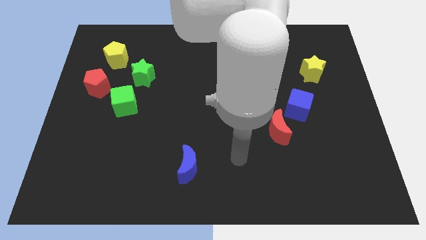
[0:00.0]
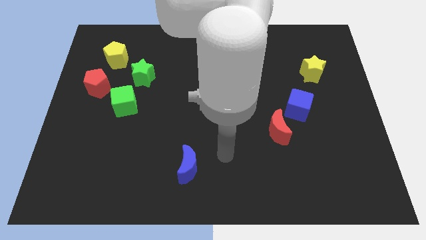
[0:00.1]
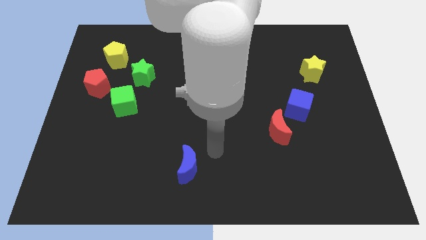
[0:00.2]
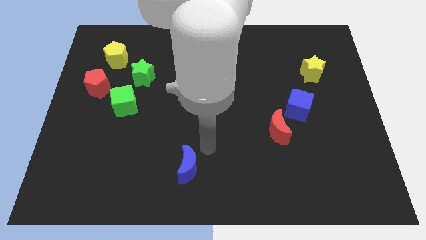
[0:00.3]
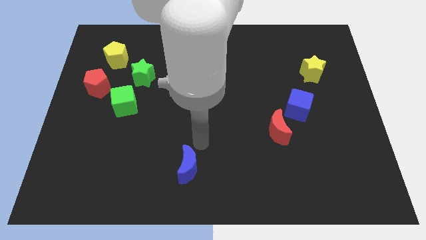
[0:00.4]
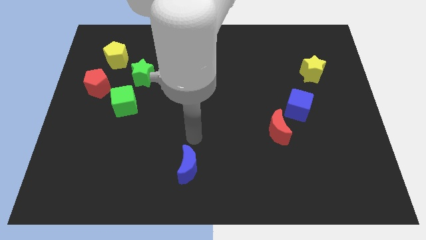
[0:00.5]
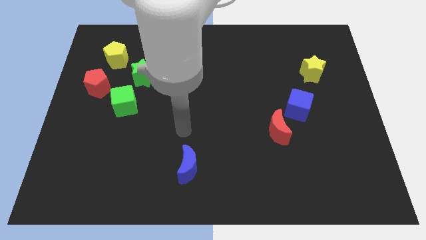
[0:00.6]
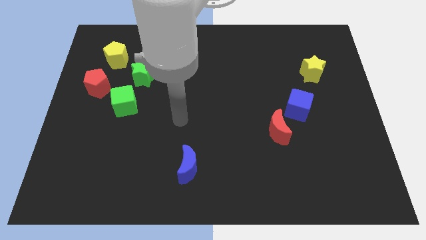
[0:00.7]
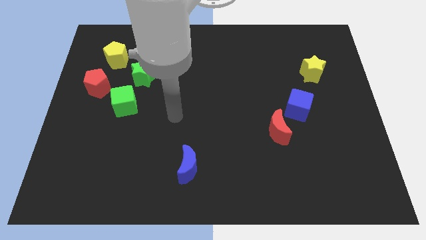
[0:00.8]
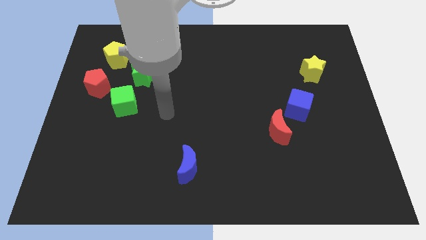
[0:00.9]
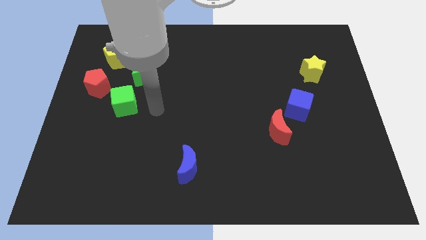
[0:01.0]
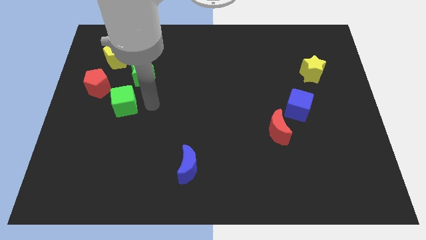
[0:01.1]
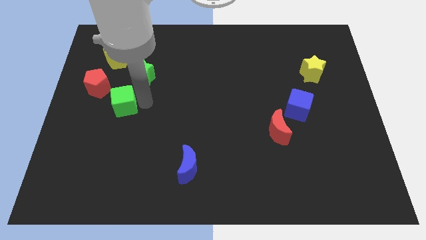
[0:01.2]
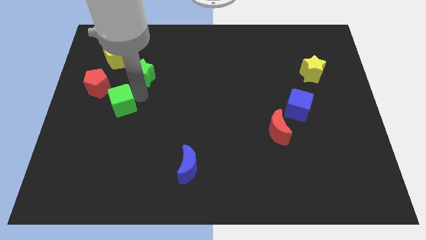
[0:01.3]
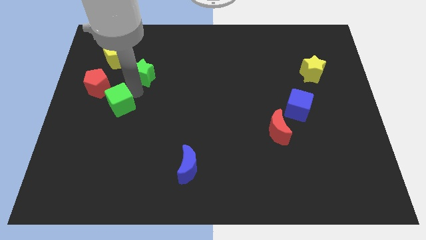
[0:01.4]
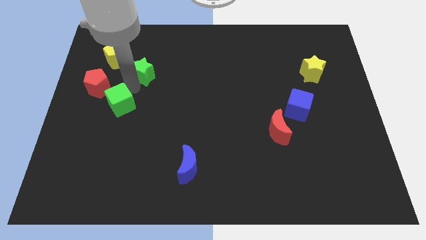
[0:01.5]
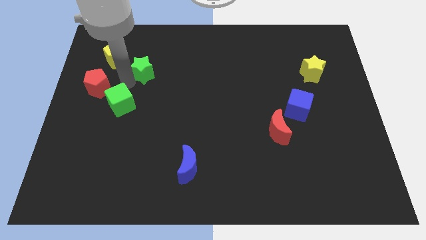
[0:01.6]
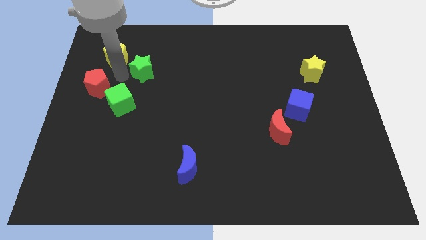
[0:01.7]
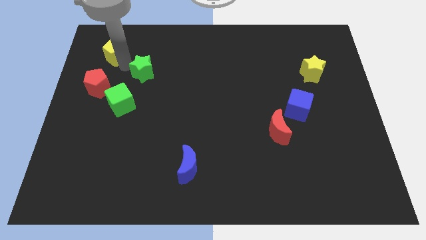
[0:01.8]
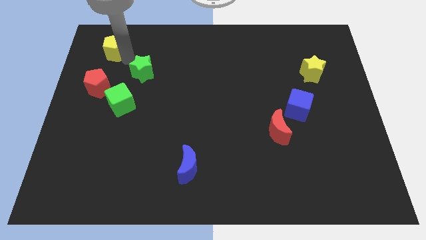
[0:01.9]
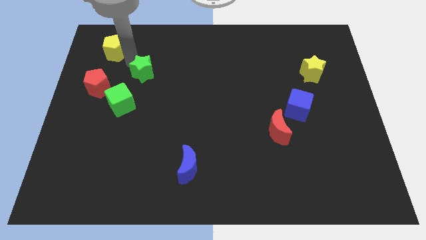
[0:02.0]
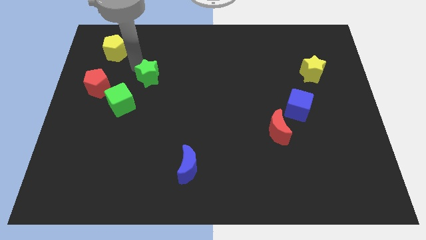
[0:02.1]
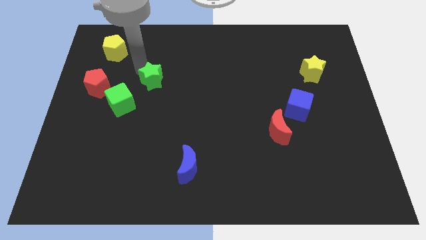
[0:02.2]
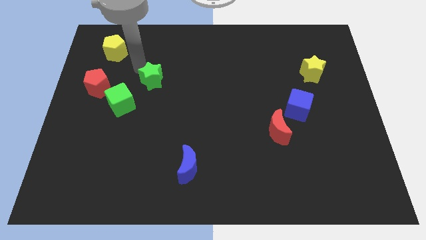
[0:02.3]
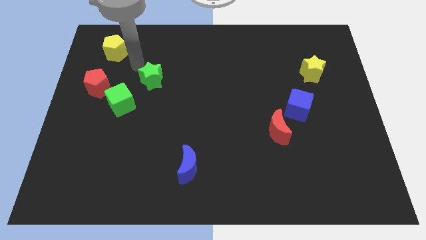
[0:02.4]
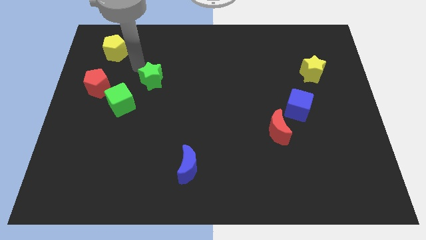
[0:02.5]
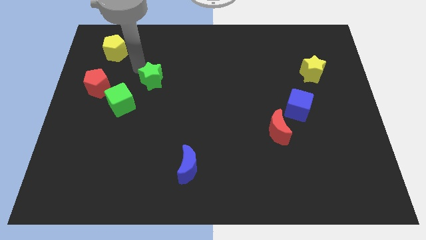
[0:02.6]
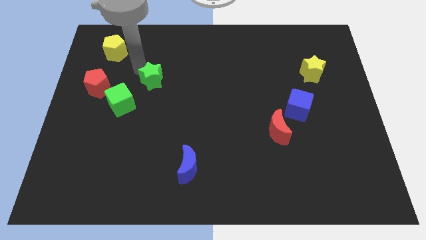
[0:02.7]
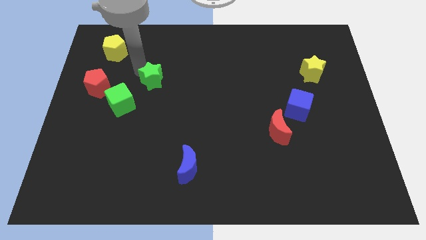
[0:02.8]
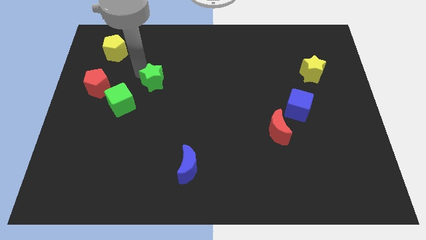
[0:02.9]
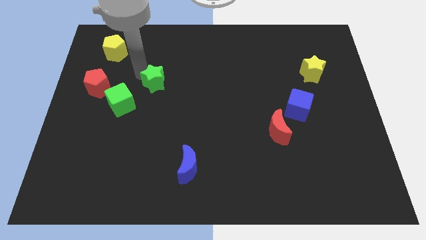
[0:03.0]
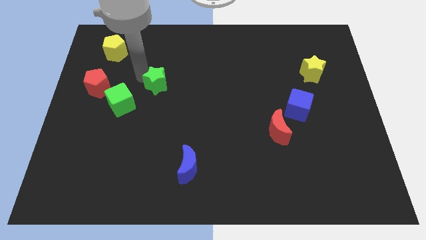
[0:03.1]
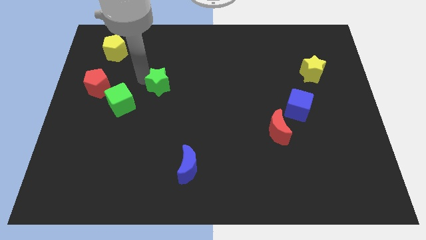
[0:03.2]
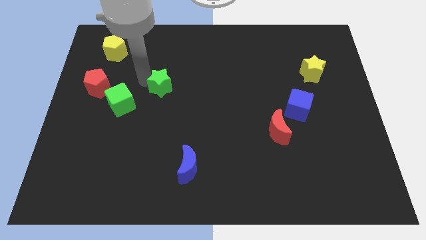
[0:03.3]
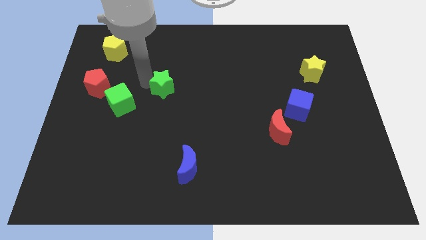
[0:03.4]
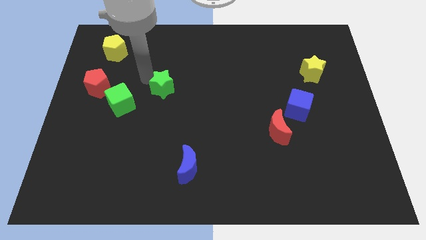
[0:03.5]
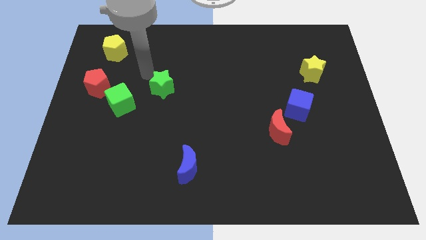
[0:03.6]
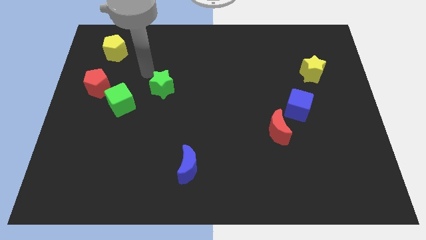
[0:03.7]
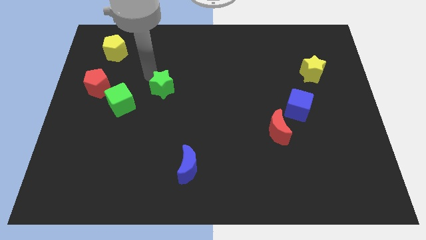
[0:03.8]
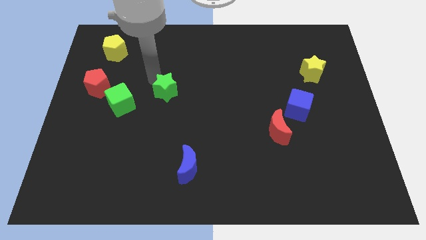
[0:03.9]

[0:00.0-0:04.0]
slide the green star slightly downwards and right

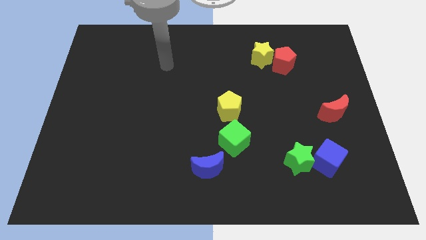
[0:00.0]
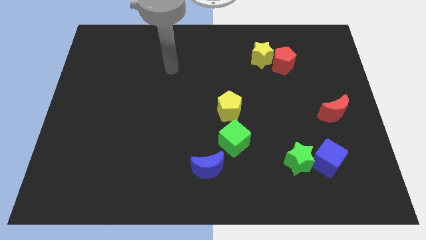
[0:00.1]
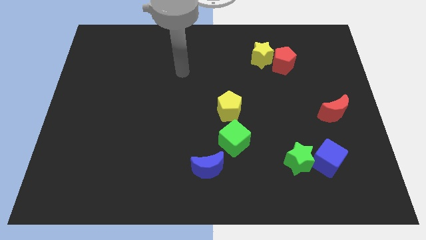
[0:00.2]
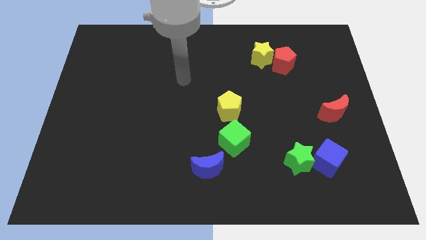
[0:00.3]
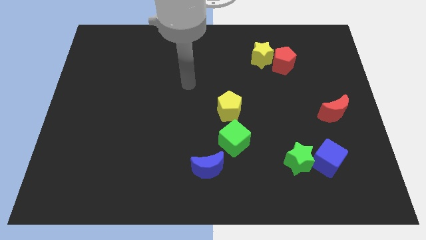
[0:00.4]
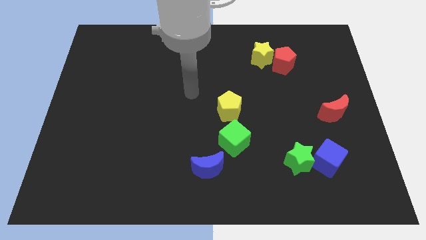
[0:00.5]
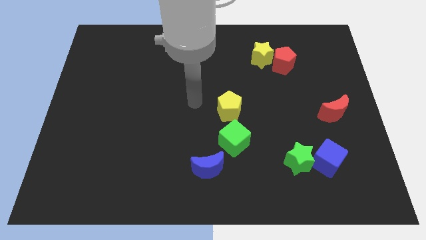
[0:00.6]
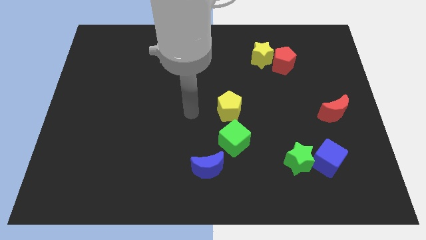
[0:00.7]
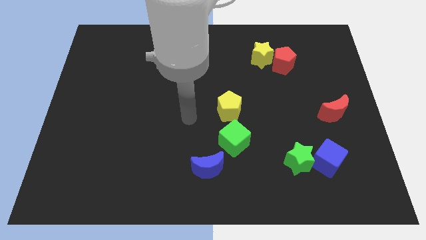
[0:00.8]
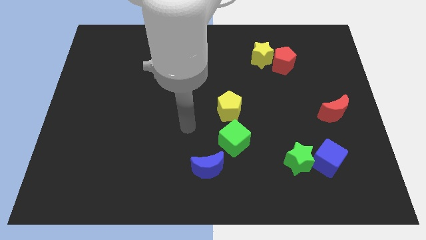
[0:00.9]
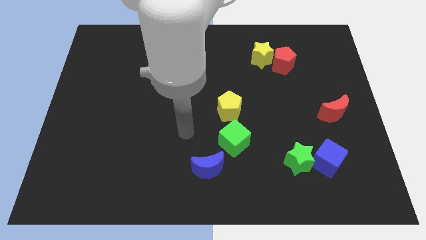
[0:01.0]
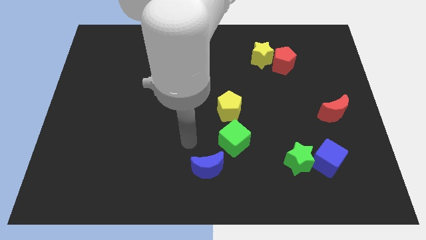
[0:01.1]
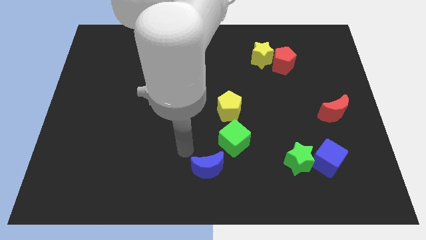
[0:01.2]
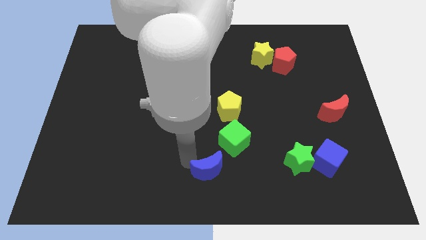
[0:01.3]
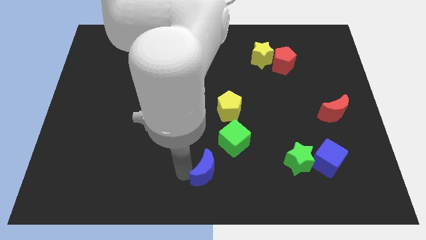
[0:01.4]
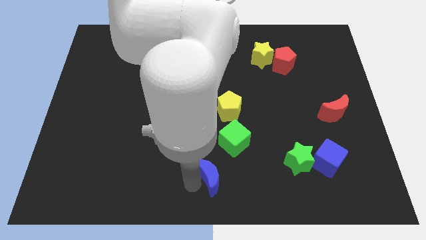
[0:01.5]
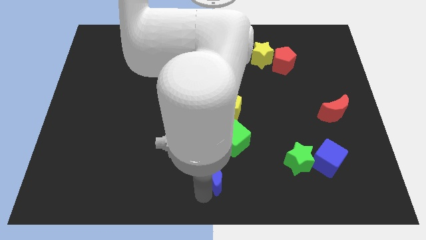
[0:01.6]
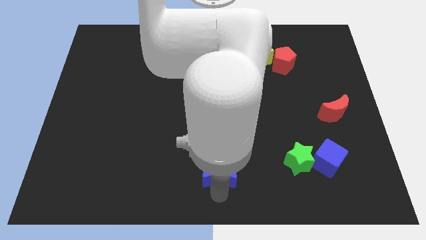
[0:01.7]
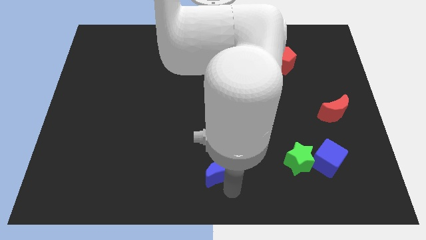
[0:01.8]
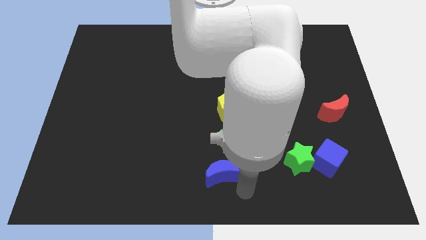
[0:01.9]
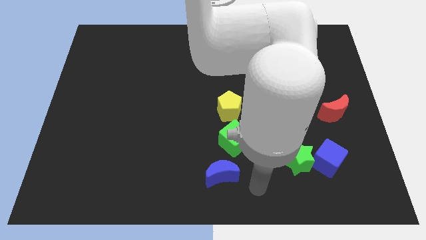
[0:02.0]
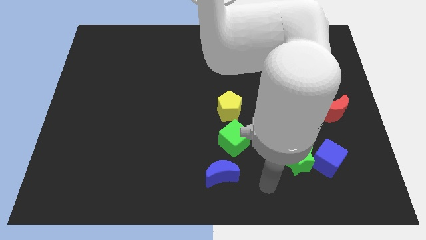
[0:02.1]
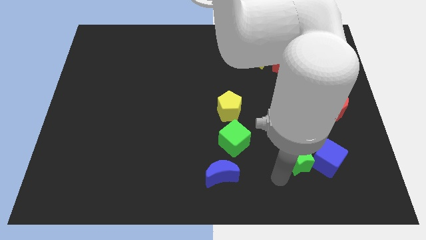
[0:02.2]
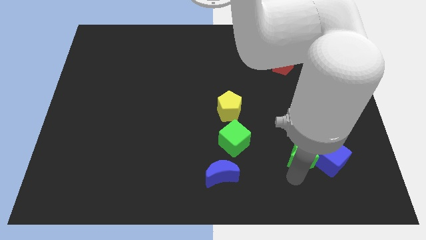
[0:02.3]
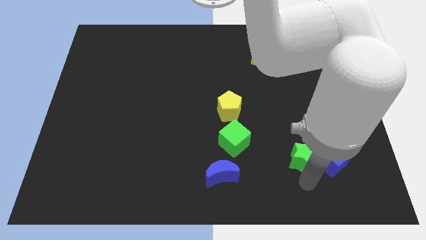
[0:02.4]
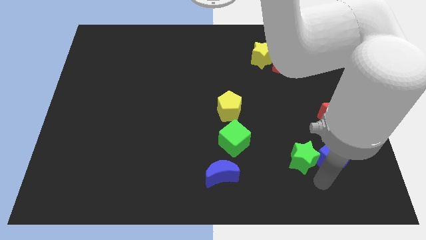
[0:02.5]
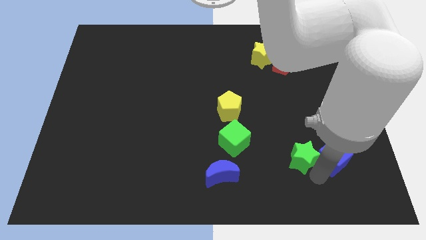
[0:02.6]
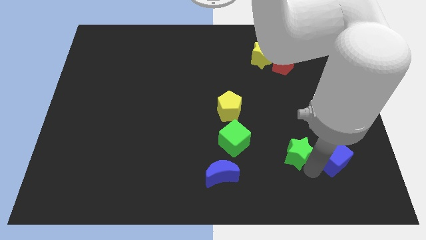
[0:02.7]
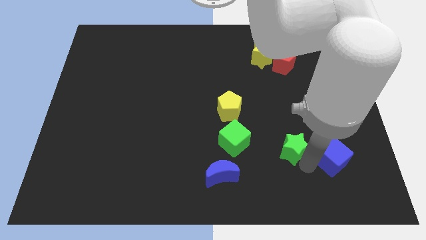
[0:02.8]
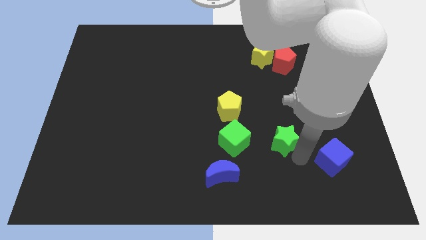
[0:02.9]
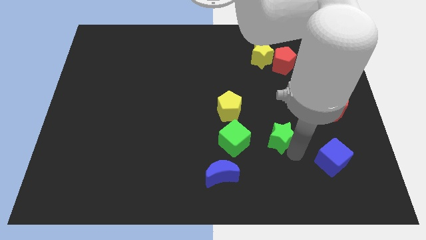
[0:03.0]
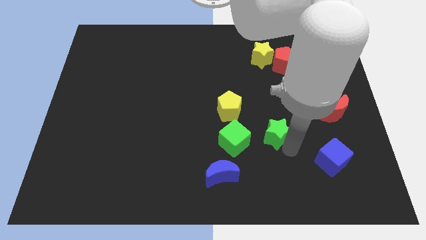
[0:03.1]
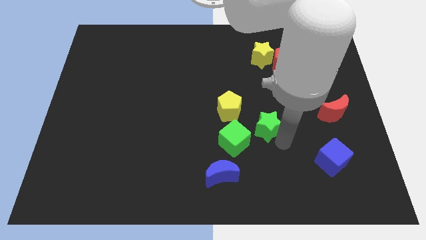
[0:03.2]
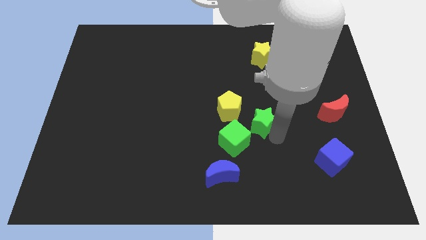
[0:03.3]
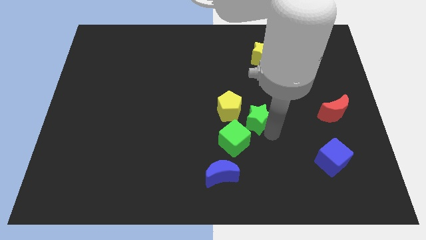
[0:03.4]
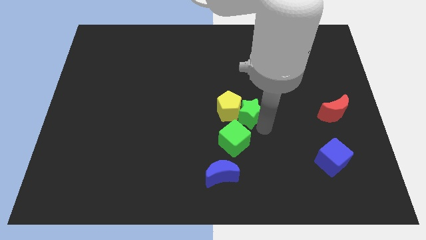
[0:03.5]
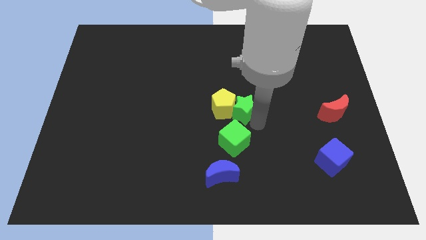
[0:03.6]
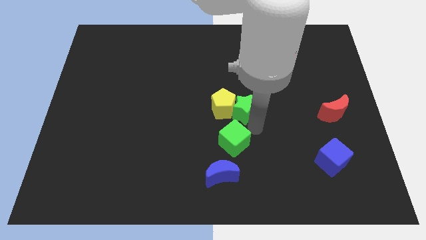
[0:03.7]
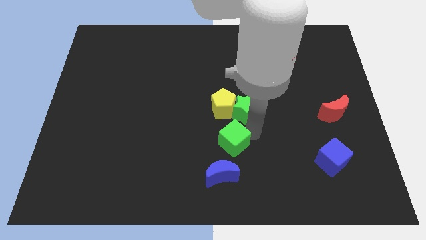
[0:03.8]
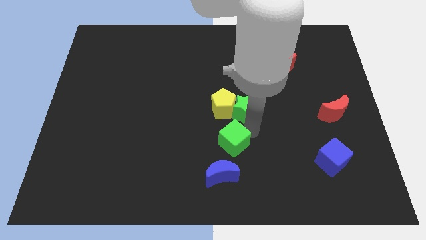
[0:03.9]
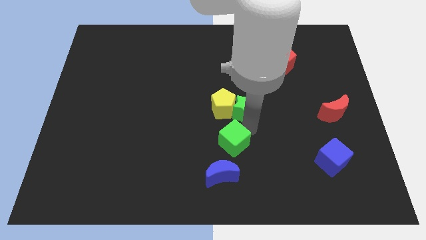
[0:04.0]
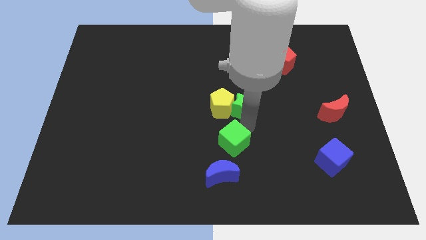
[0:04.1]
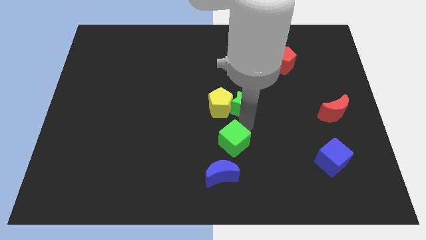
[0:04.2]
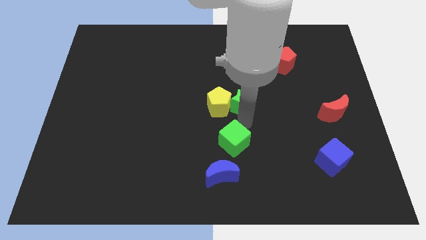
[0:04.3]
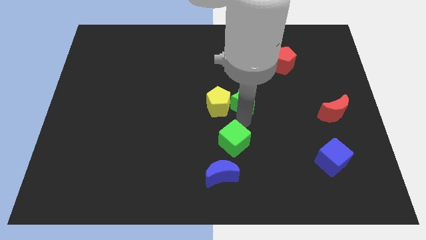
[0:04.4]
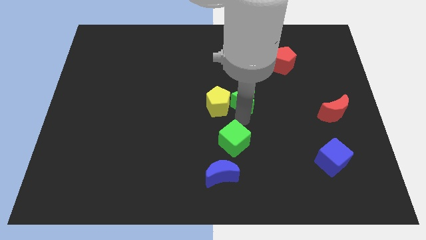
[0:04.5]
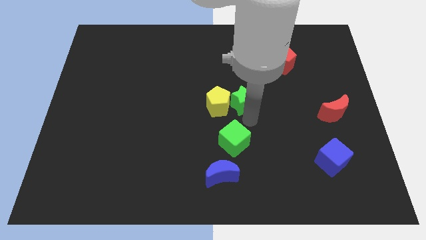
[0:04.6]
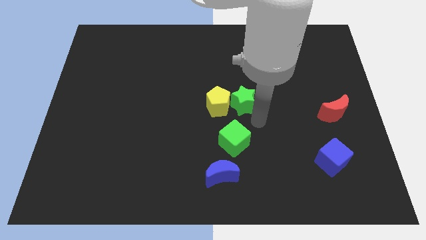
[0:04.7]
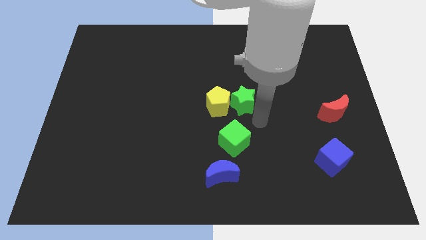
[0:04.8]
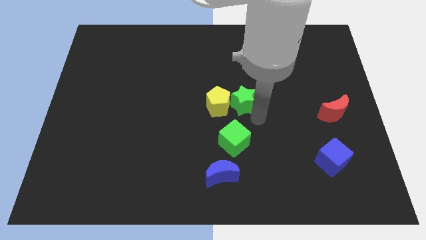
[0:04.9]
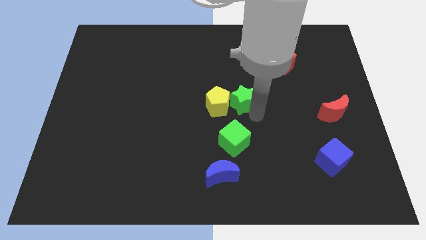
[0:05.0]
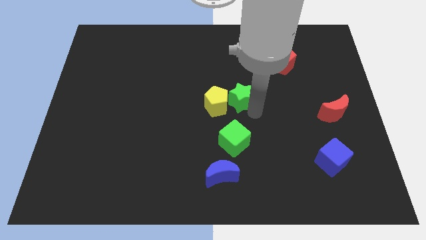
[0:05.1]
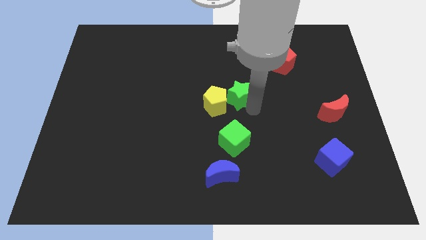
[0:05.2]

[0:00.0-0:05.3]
move the green star up and to the left
